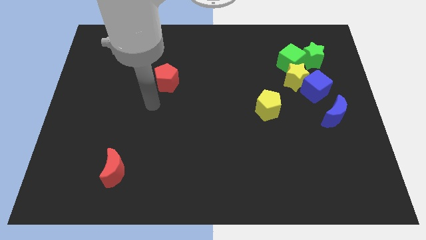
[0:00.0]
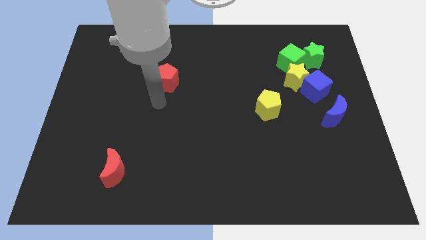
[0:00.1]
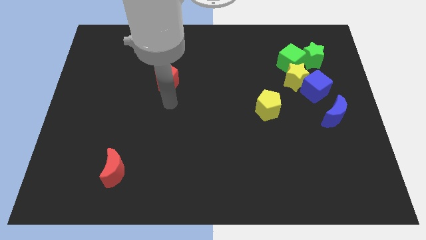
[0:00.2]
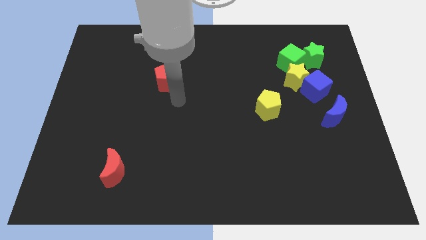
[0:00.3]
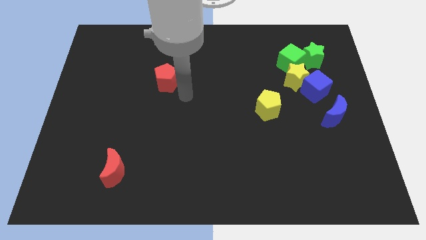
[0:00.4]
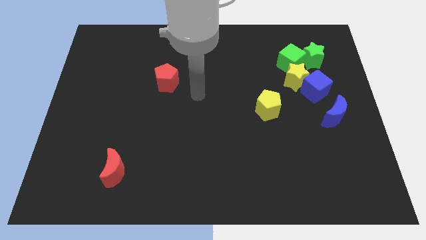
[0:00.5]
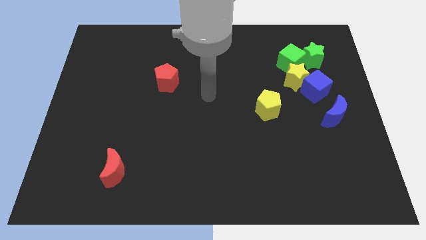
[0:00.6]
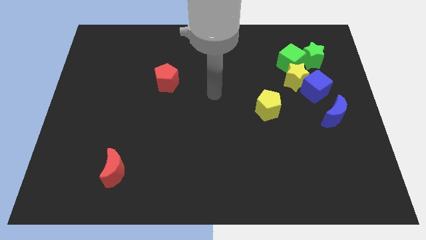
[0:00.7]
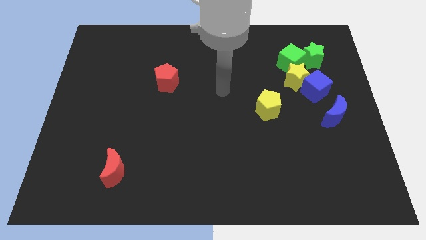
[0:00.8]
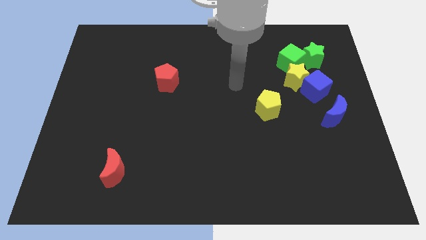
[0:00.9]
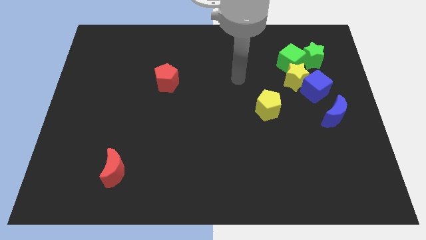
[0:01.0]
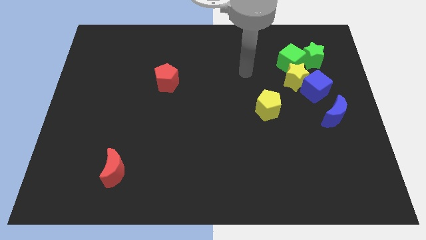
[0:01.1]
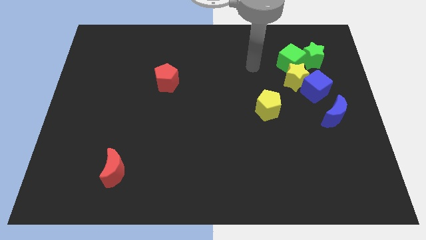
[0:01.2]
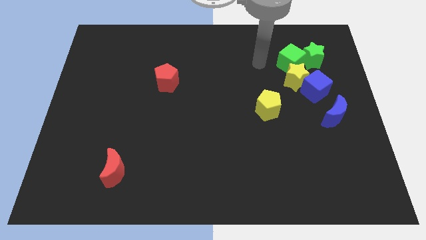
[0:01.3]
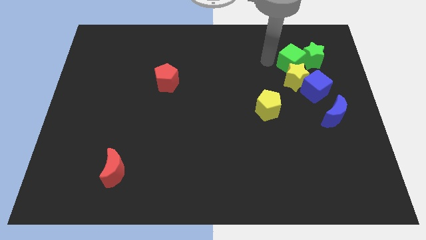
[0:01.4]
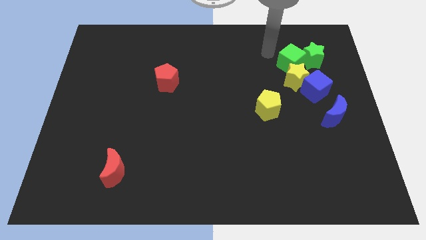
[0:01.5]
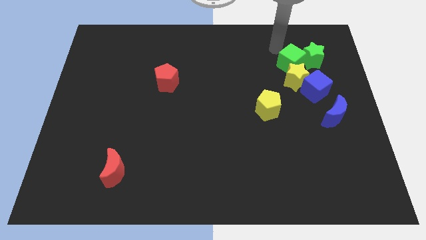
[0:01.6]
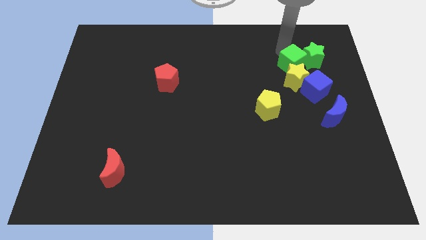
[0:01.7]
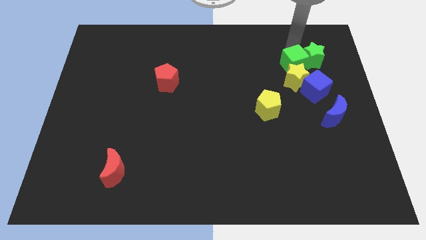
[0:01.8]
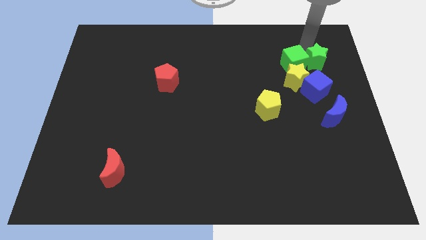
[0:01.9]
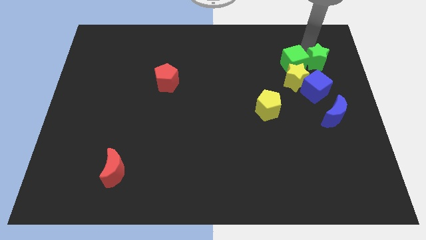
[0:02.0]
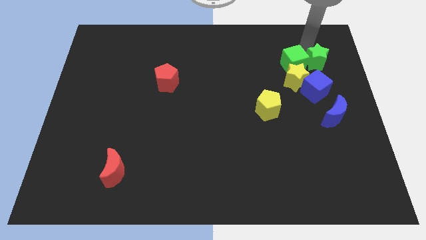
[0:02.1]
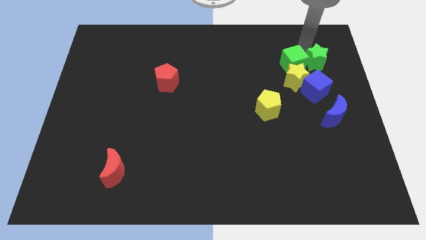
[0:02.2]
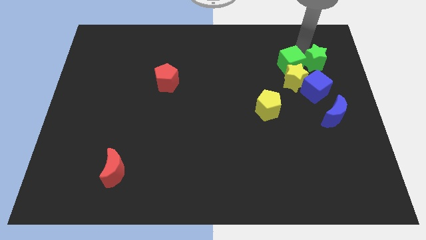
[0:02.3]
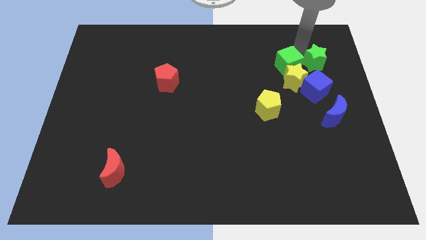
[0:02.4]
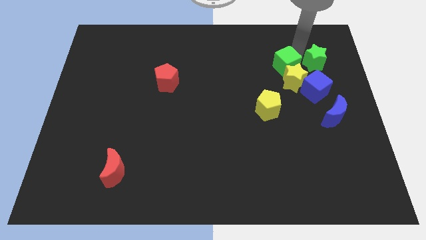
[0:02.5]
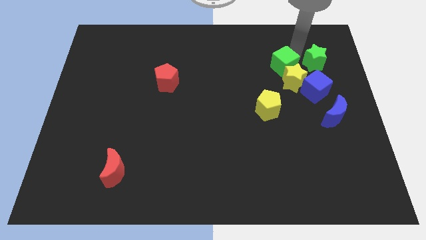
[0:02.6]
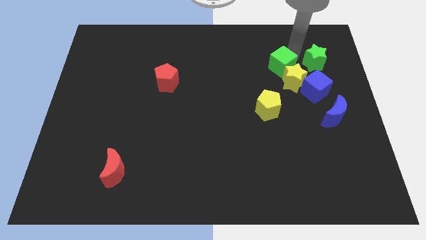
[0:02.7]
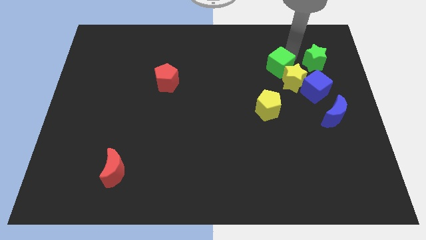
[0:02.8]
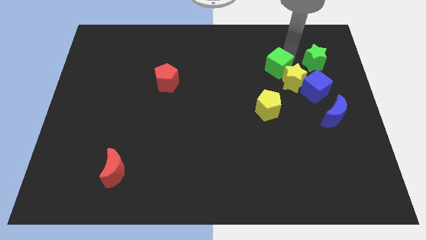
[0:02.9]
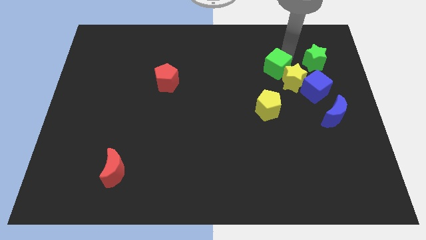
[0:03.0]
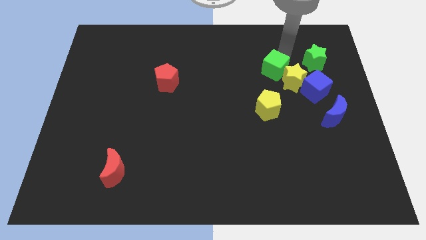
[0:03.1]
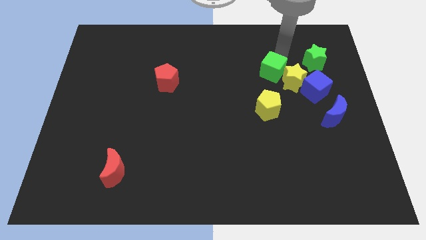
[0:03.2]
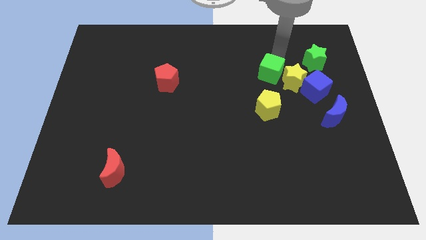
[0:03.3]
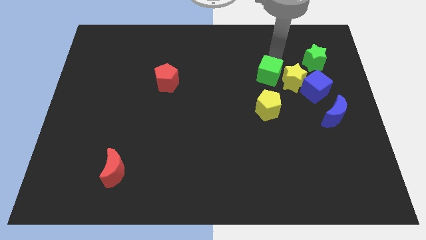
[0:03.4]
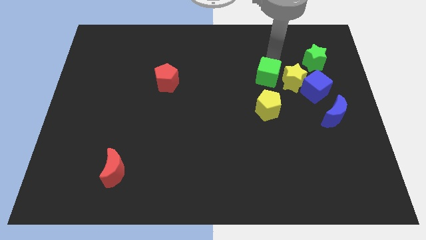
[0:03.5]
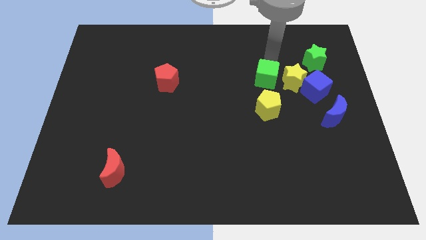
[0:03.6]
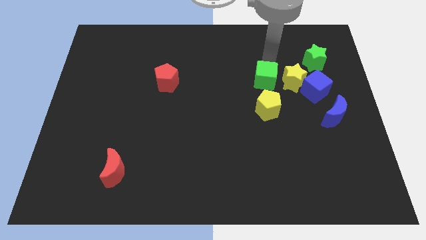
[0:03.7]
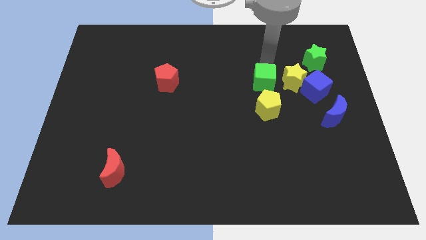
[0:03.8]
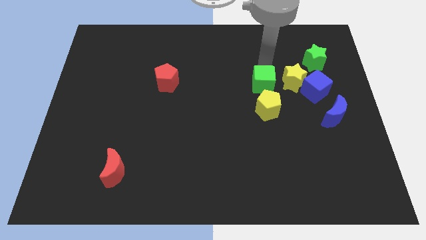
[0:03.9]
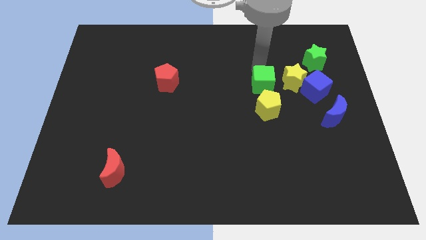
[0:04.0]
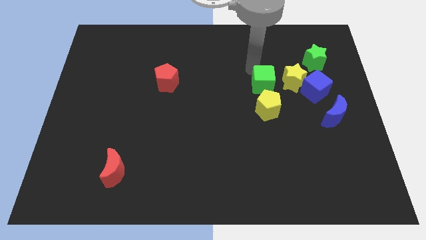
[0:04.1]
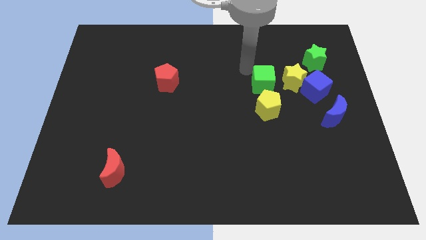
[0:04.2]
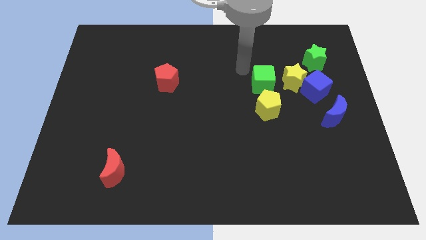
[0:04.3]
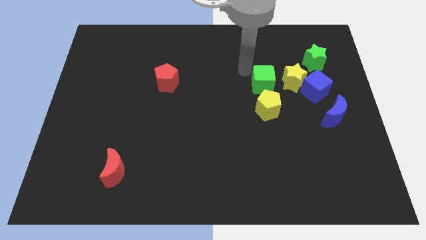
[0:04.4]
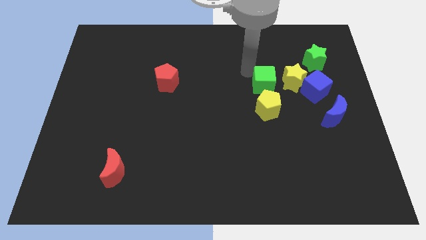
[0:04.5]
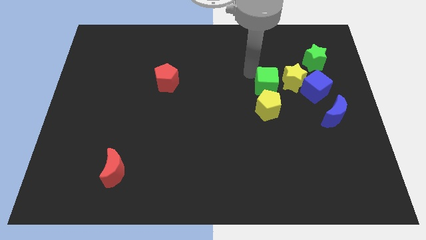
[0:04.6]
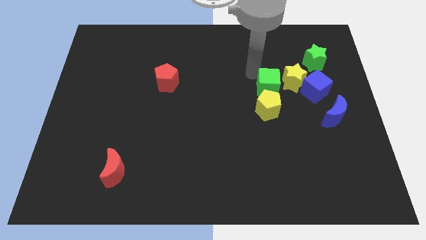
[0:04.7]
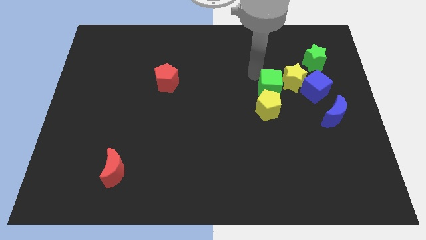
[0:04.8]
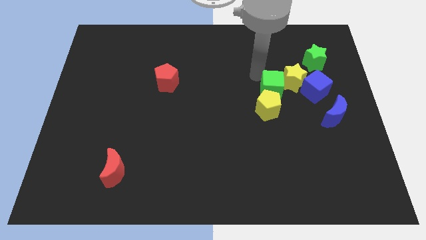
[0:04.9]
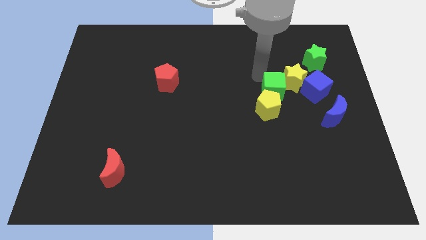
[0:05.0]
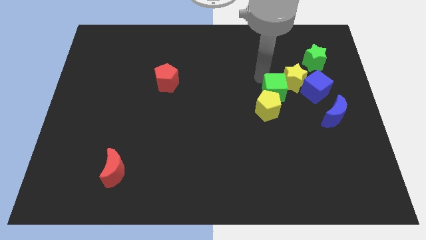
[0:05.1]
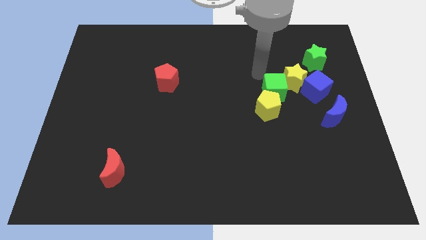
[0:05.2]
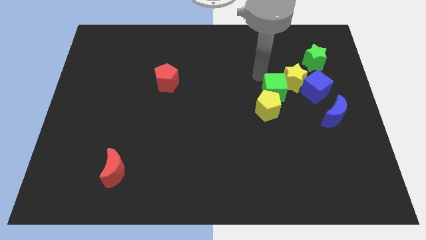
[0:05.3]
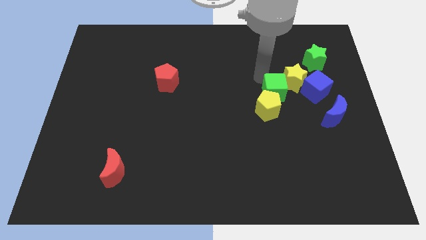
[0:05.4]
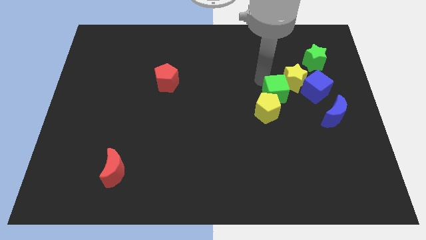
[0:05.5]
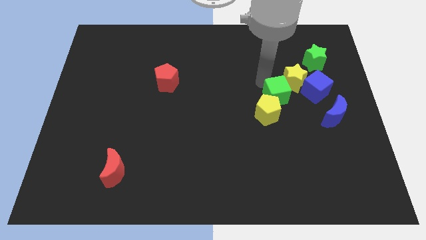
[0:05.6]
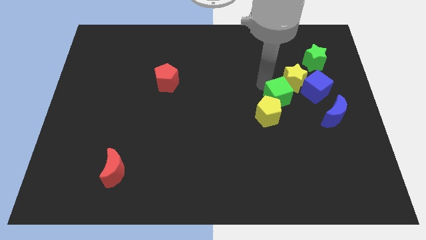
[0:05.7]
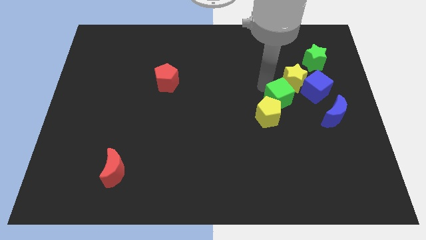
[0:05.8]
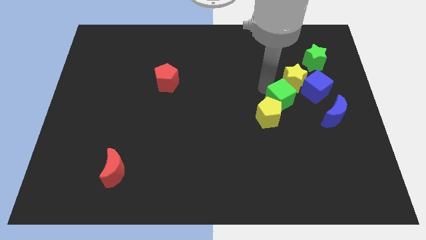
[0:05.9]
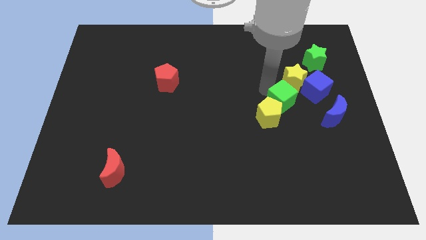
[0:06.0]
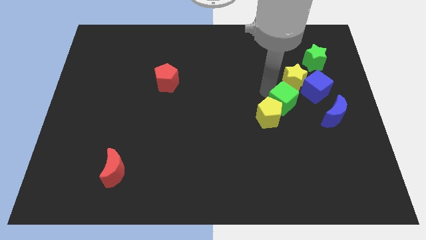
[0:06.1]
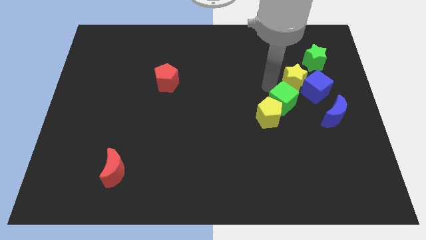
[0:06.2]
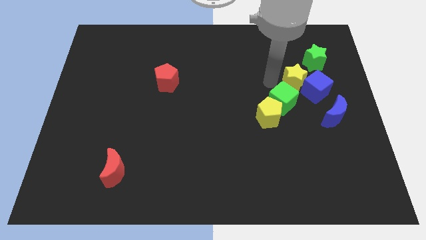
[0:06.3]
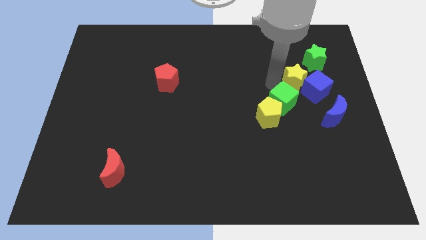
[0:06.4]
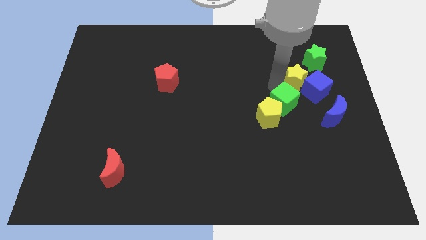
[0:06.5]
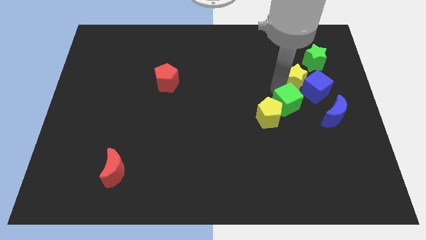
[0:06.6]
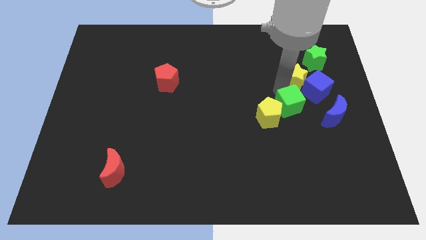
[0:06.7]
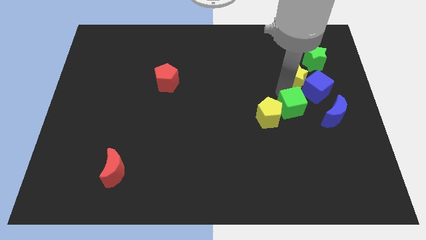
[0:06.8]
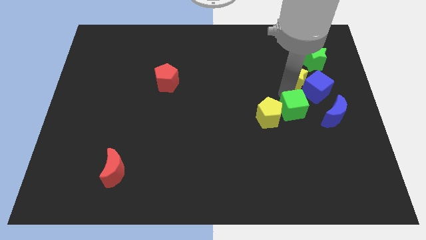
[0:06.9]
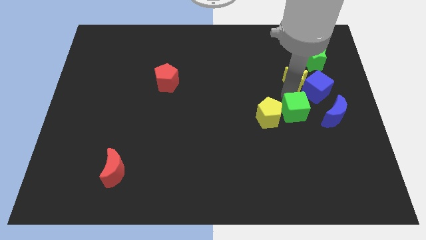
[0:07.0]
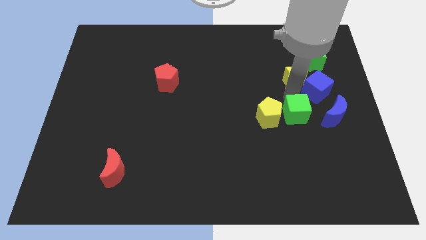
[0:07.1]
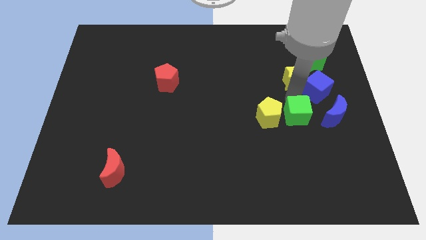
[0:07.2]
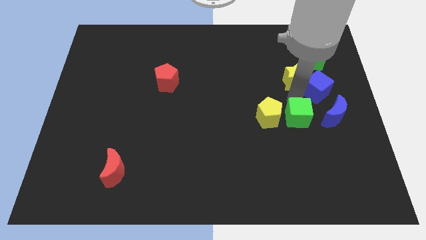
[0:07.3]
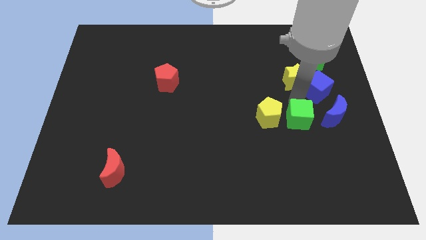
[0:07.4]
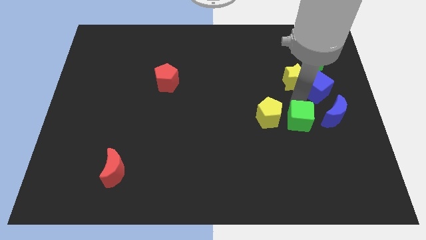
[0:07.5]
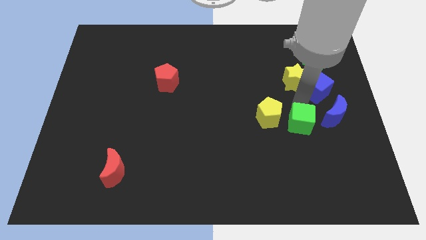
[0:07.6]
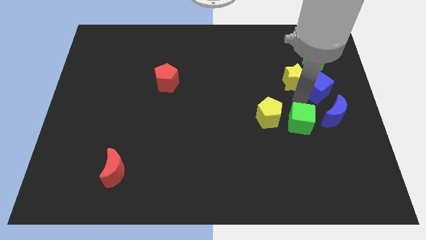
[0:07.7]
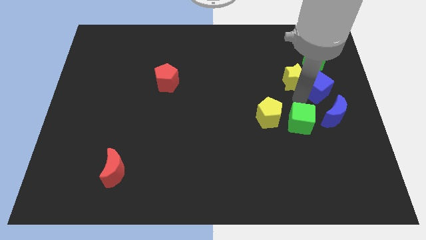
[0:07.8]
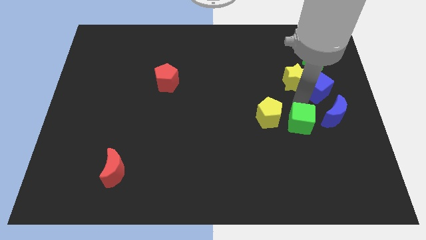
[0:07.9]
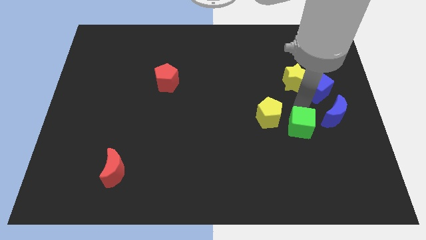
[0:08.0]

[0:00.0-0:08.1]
push the green cube down
